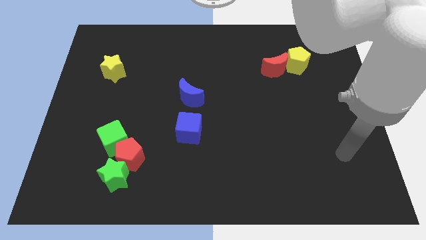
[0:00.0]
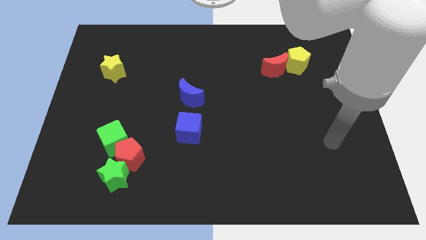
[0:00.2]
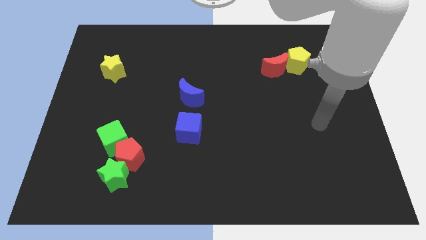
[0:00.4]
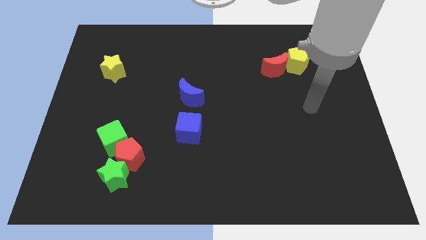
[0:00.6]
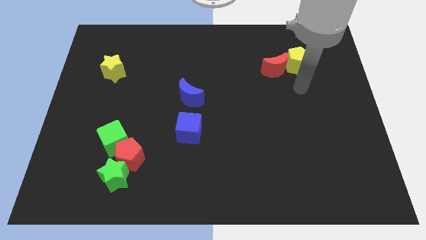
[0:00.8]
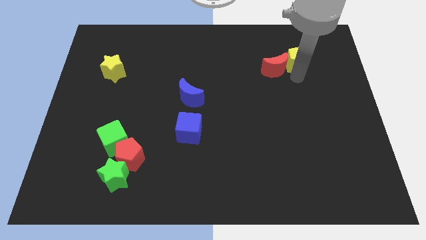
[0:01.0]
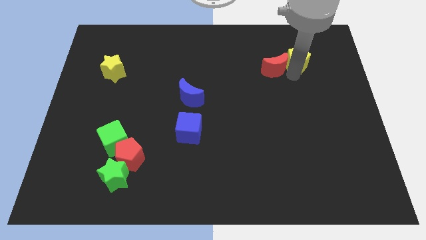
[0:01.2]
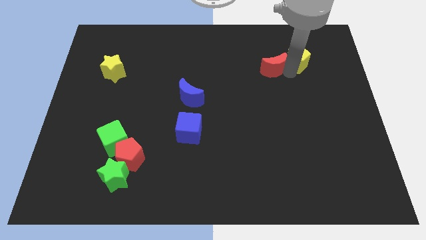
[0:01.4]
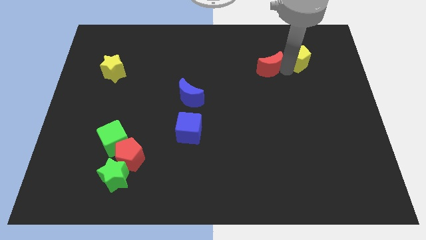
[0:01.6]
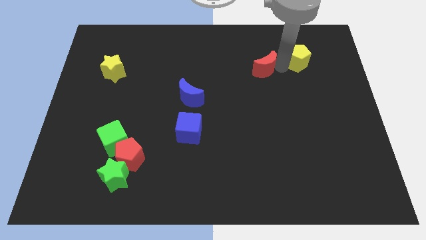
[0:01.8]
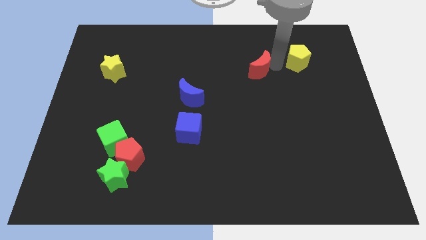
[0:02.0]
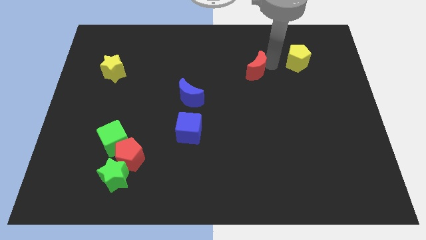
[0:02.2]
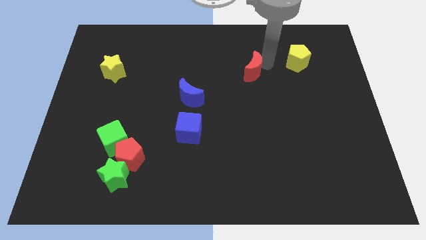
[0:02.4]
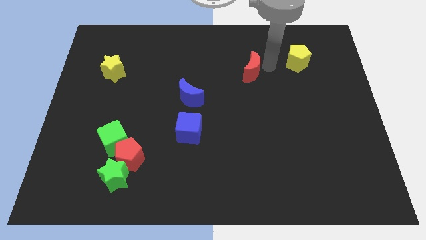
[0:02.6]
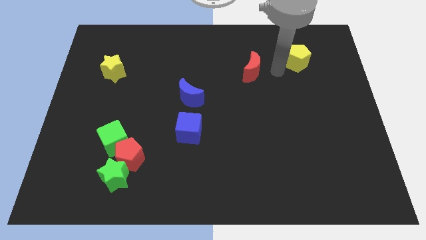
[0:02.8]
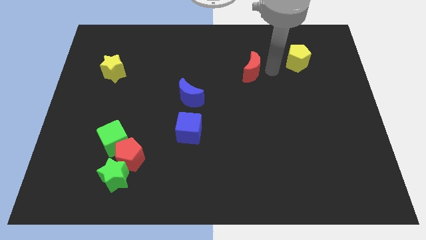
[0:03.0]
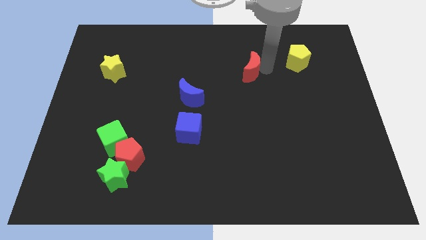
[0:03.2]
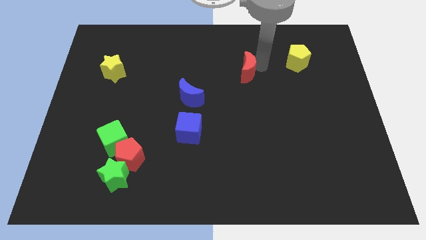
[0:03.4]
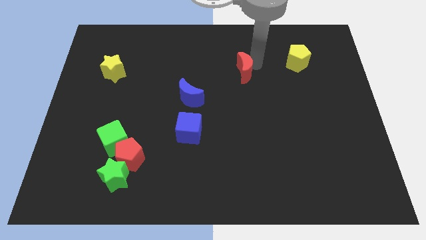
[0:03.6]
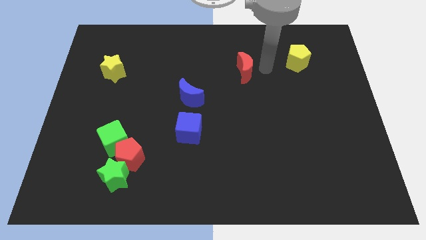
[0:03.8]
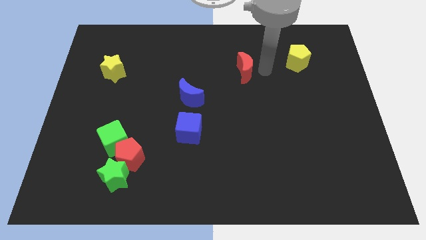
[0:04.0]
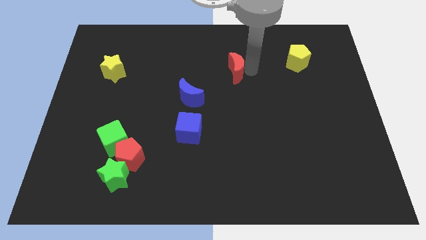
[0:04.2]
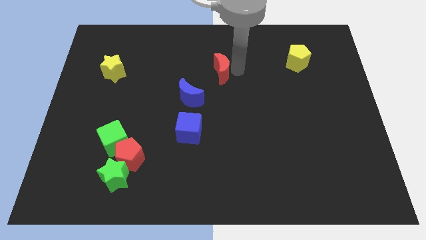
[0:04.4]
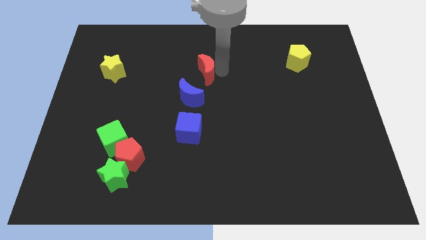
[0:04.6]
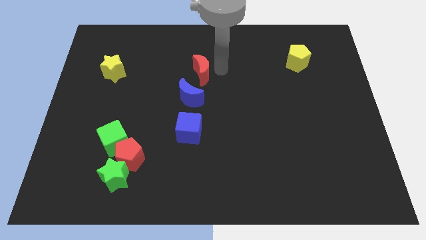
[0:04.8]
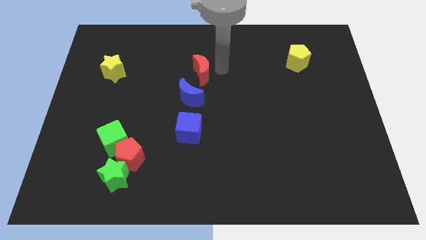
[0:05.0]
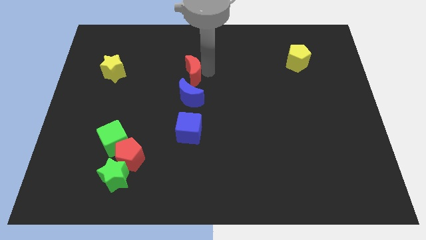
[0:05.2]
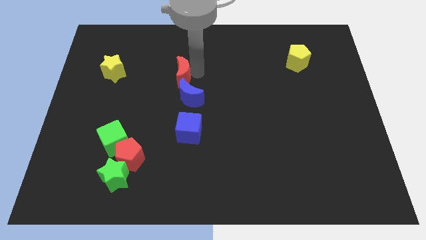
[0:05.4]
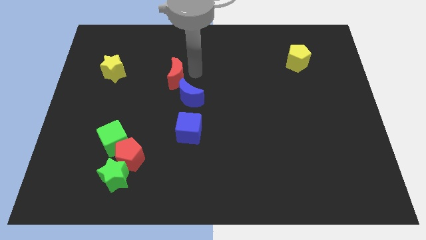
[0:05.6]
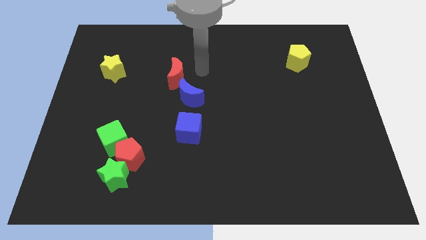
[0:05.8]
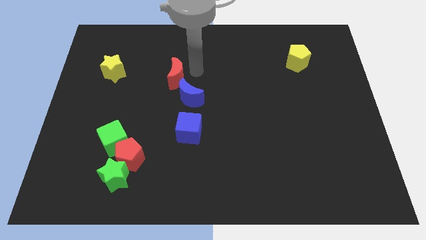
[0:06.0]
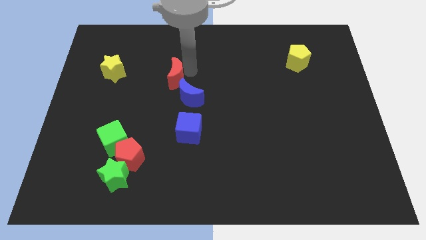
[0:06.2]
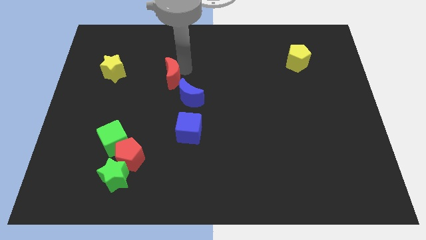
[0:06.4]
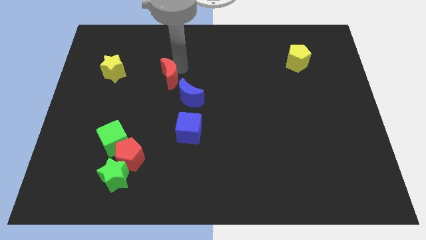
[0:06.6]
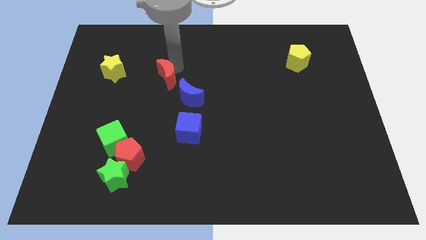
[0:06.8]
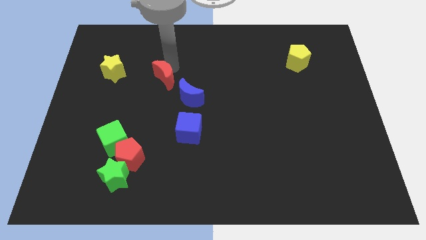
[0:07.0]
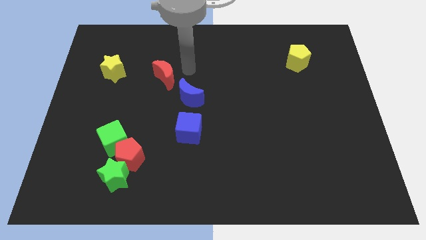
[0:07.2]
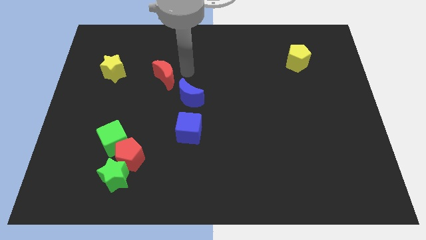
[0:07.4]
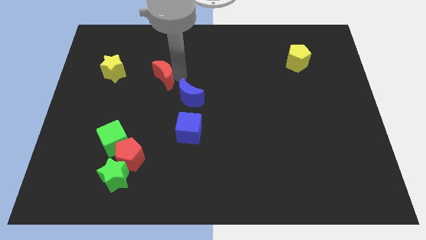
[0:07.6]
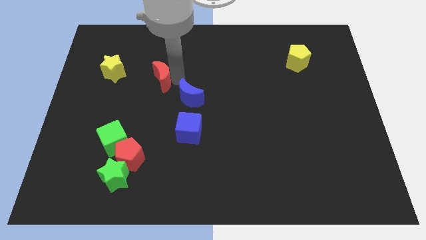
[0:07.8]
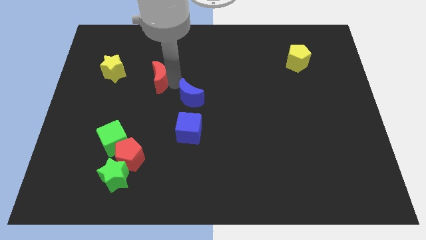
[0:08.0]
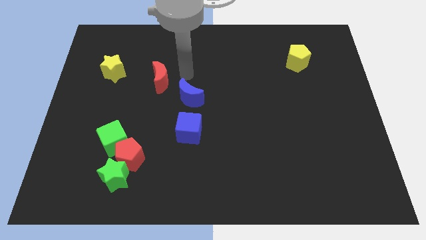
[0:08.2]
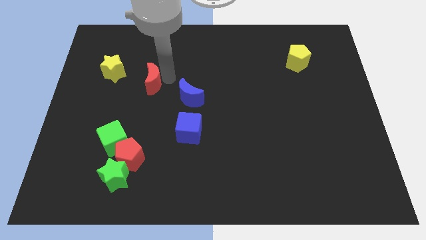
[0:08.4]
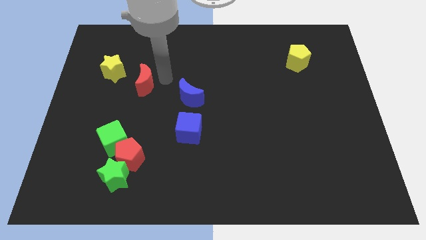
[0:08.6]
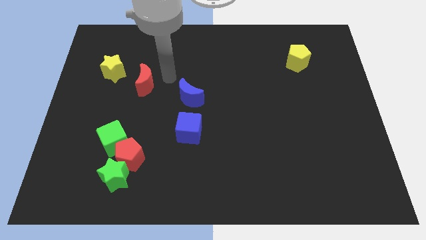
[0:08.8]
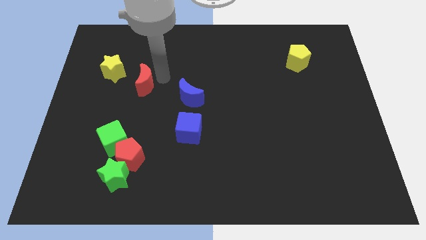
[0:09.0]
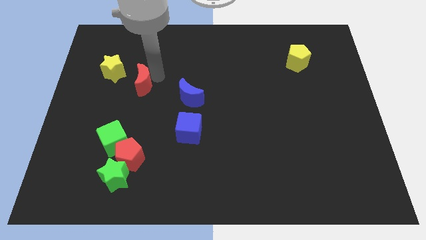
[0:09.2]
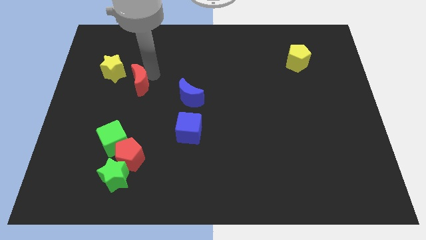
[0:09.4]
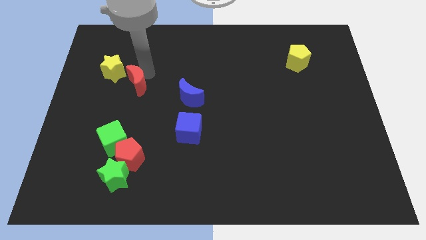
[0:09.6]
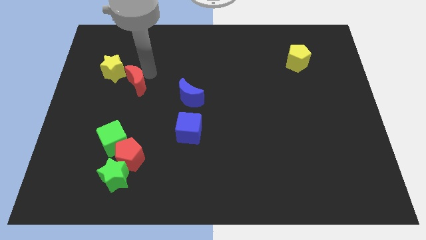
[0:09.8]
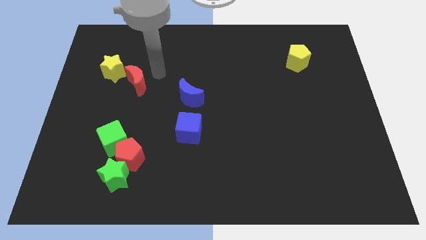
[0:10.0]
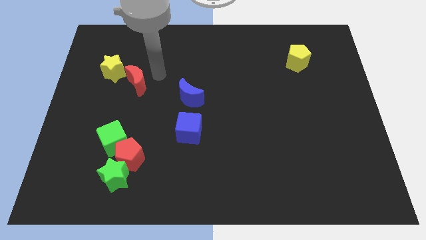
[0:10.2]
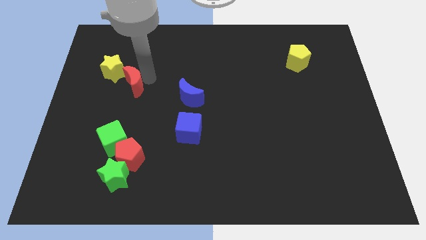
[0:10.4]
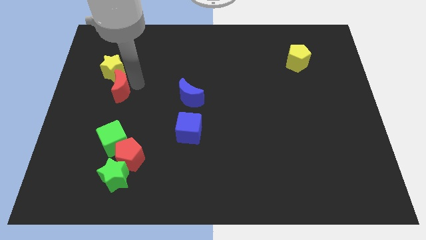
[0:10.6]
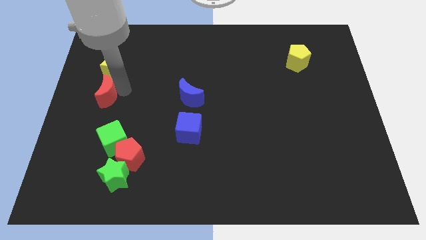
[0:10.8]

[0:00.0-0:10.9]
move the red moon to the center left

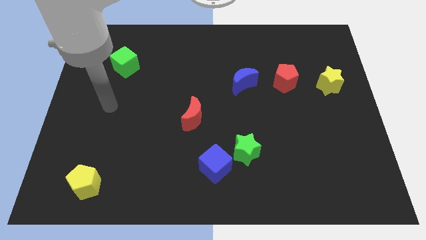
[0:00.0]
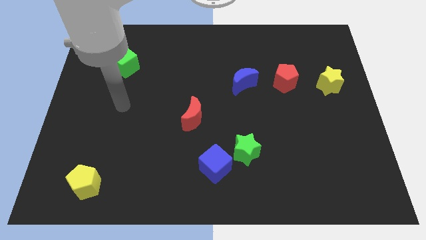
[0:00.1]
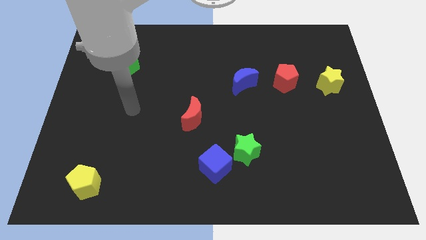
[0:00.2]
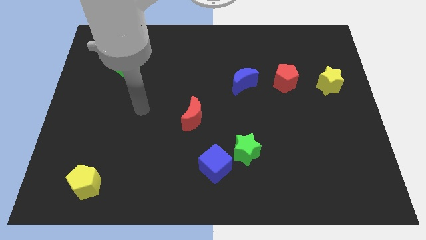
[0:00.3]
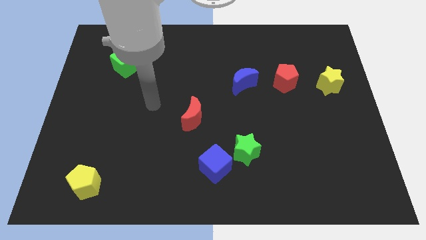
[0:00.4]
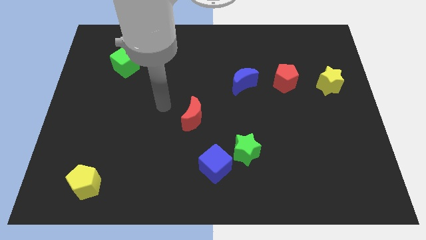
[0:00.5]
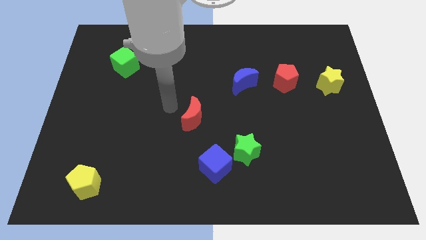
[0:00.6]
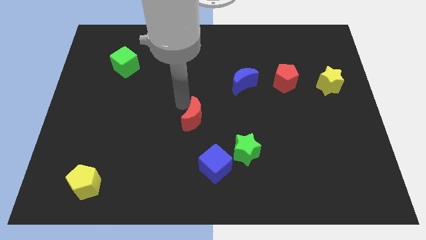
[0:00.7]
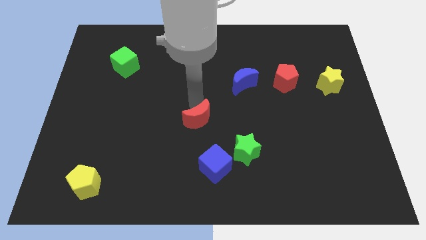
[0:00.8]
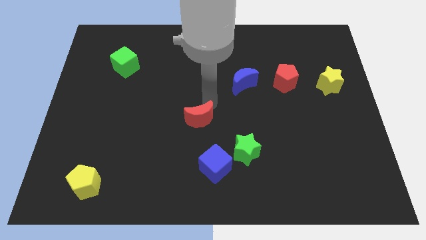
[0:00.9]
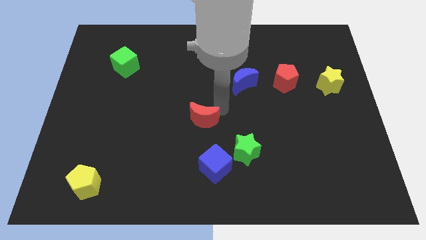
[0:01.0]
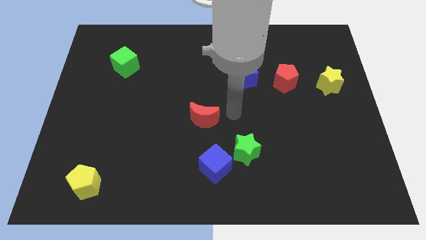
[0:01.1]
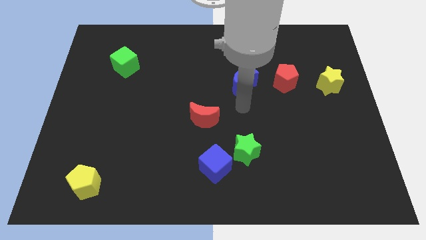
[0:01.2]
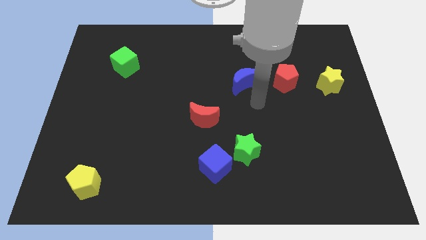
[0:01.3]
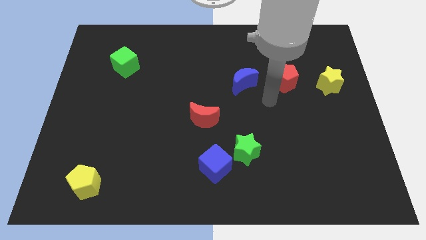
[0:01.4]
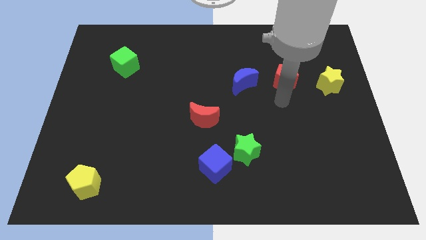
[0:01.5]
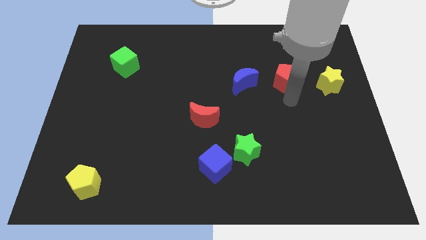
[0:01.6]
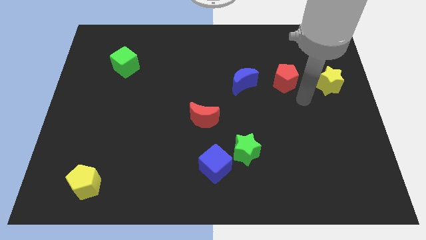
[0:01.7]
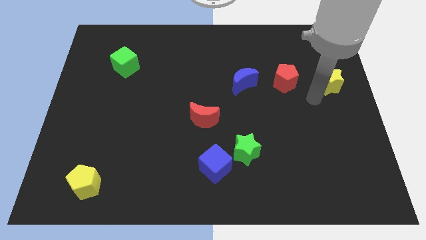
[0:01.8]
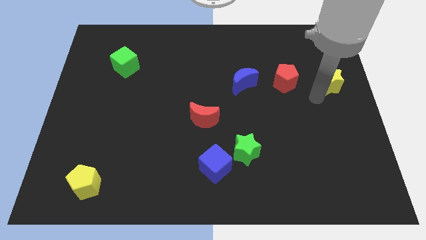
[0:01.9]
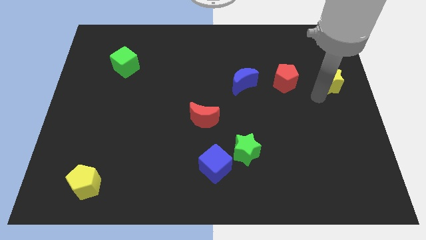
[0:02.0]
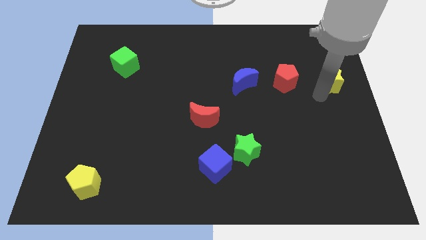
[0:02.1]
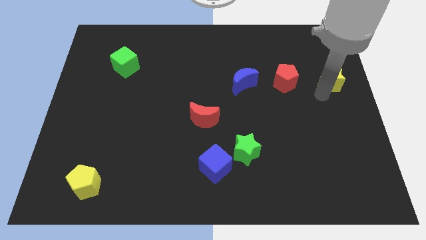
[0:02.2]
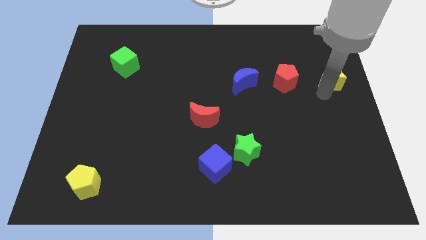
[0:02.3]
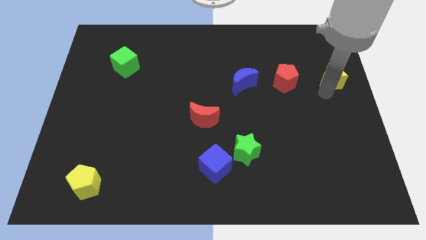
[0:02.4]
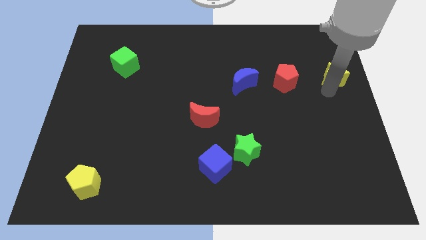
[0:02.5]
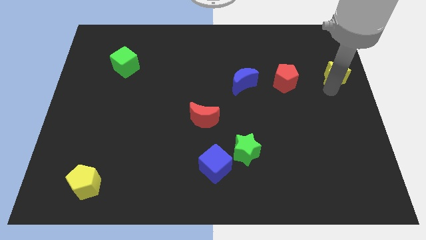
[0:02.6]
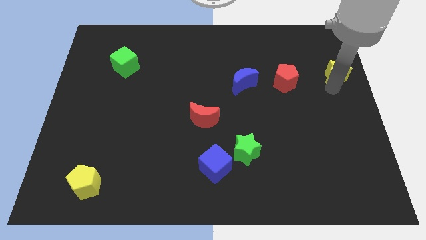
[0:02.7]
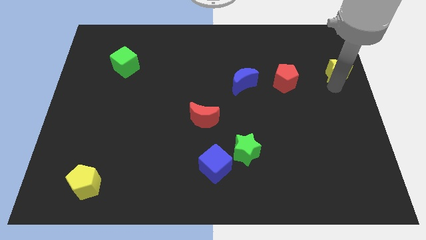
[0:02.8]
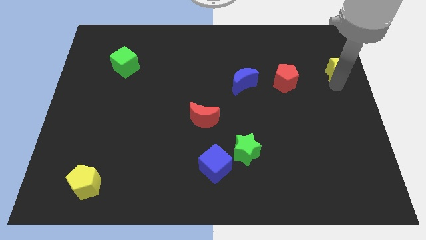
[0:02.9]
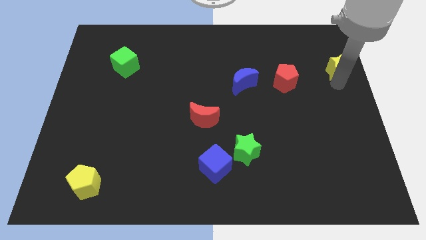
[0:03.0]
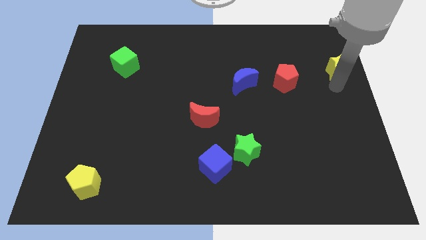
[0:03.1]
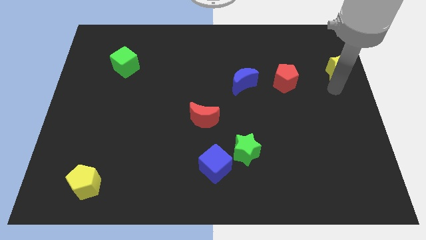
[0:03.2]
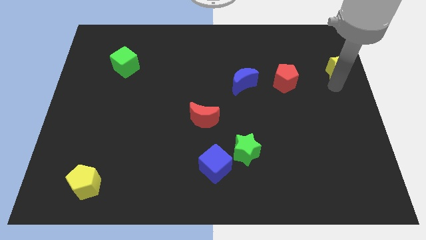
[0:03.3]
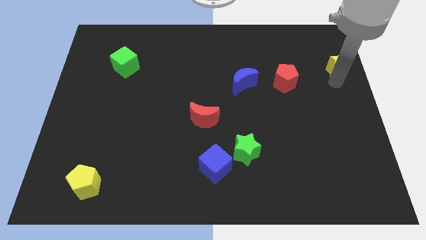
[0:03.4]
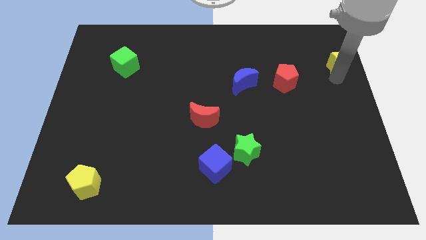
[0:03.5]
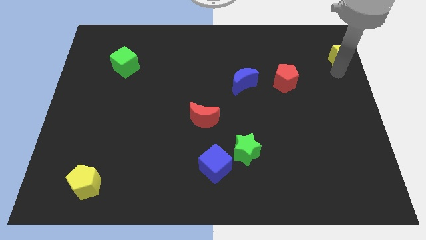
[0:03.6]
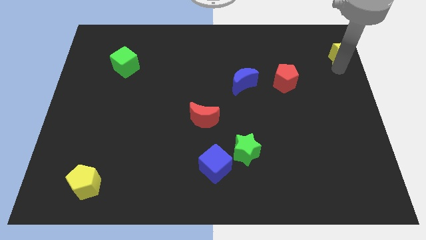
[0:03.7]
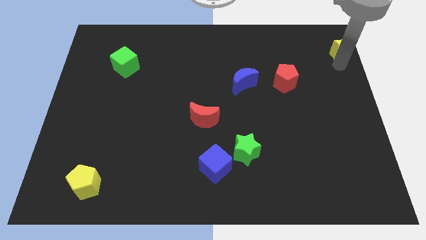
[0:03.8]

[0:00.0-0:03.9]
move the yellow star to the top right
